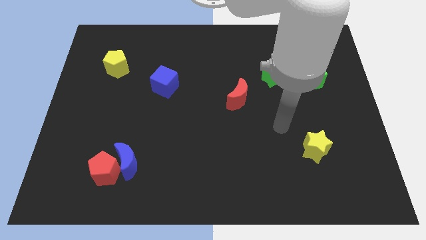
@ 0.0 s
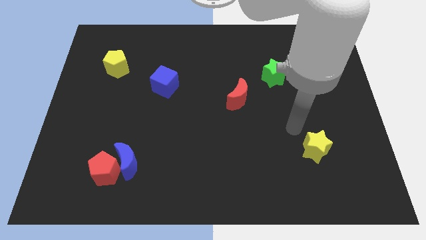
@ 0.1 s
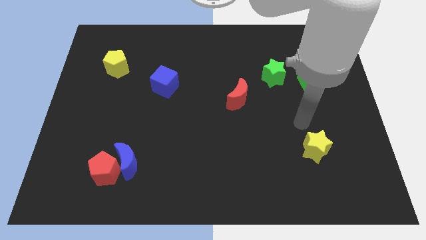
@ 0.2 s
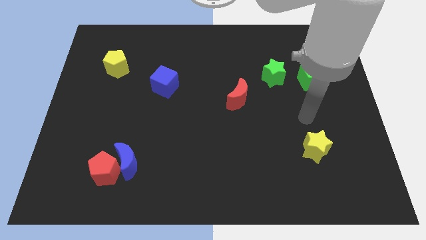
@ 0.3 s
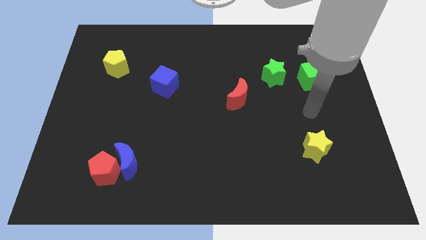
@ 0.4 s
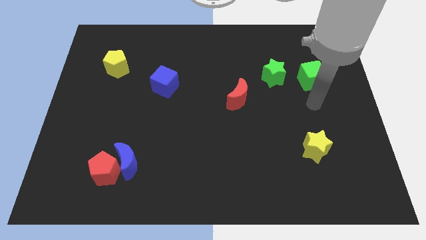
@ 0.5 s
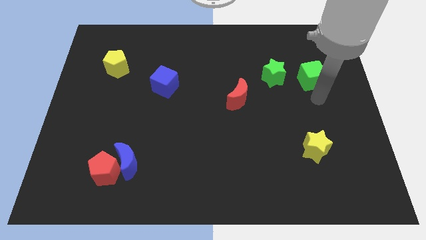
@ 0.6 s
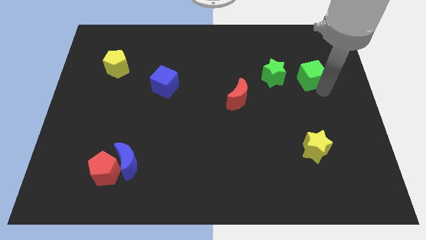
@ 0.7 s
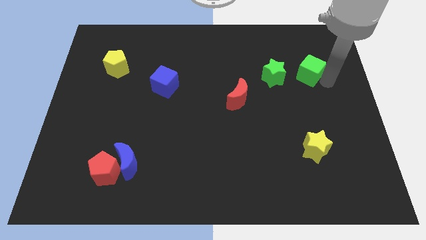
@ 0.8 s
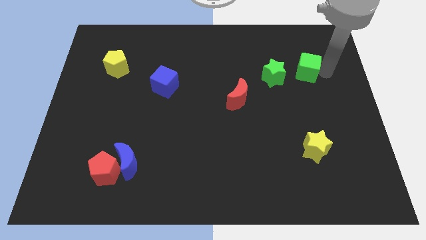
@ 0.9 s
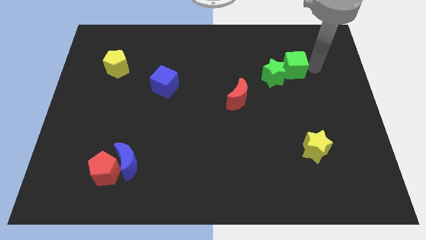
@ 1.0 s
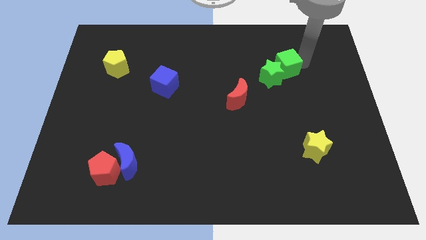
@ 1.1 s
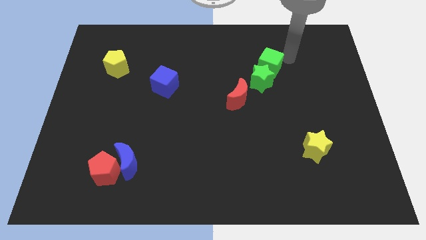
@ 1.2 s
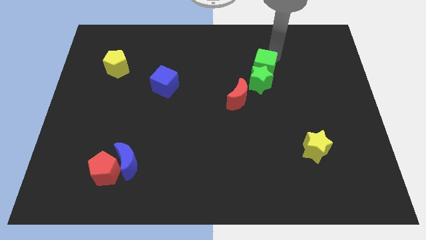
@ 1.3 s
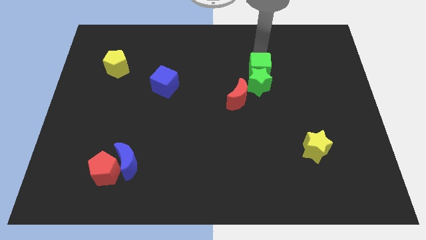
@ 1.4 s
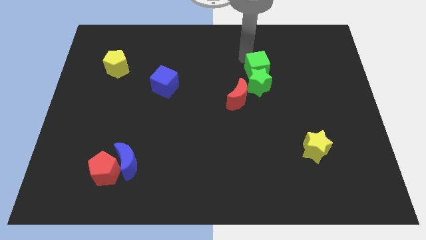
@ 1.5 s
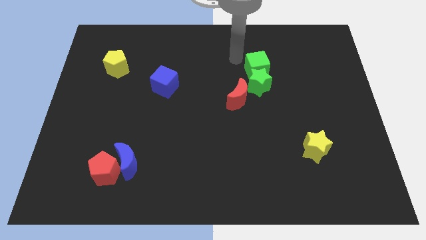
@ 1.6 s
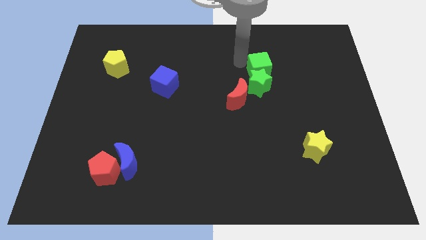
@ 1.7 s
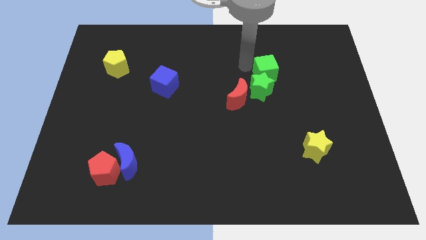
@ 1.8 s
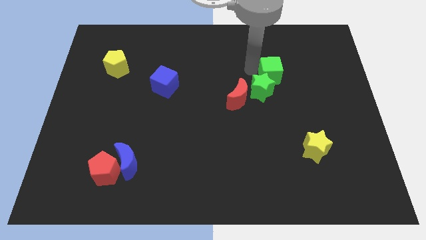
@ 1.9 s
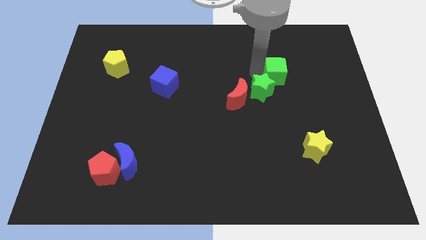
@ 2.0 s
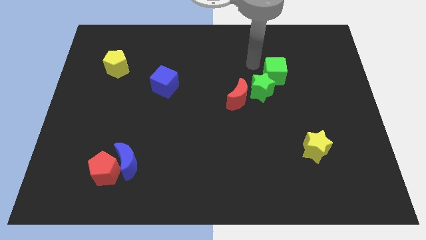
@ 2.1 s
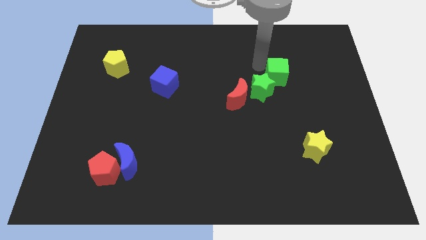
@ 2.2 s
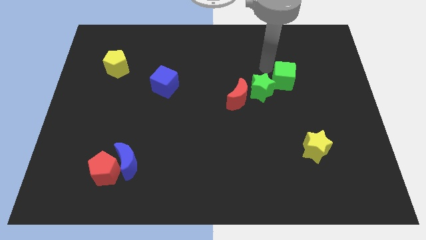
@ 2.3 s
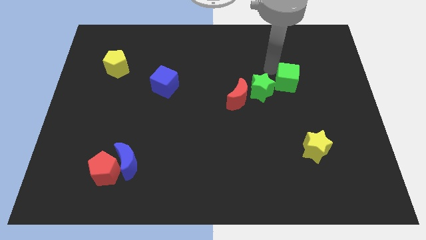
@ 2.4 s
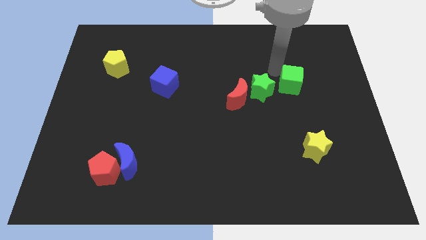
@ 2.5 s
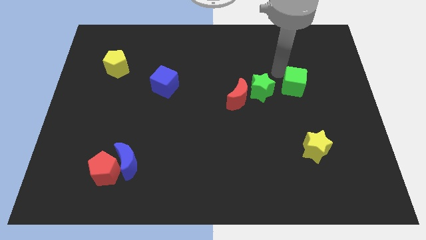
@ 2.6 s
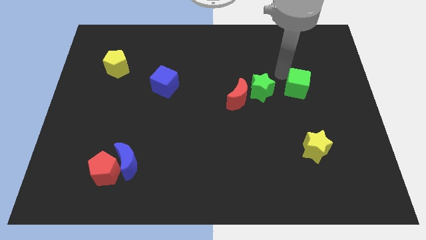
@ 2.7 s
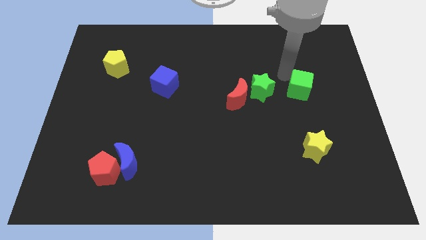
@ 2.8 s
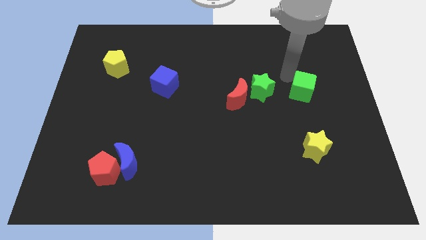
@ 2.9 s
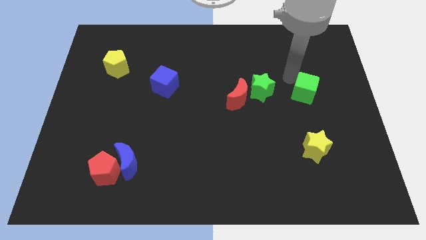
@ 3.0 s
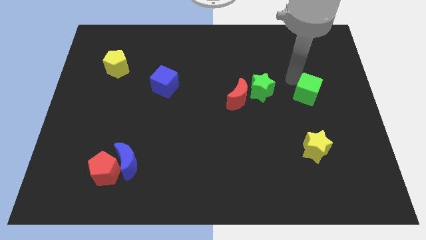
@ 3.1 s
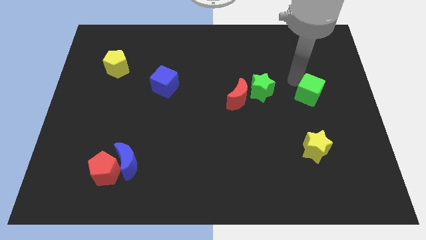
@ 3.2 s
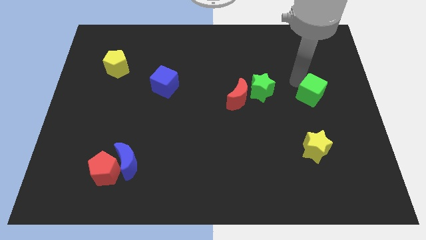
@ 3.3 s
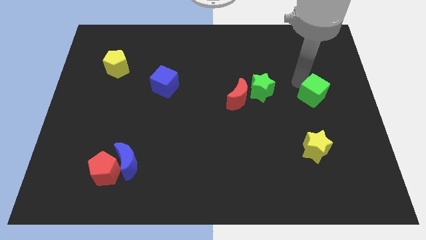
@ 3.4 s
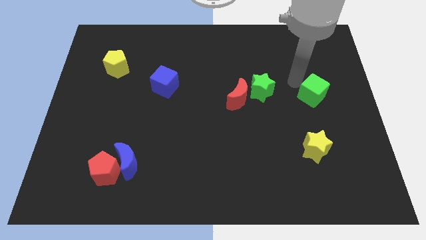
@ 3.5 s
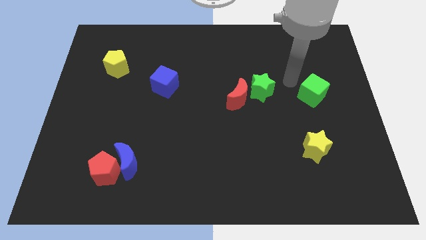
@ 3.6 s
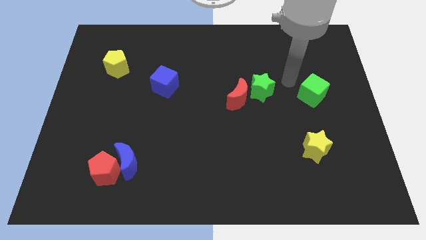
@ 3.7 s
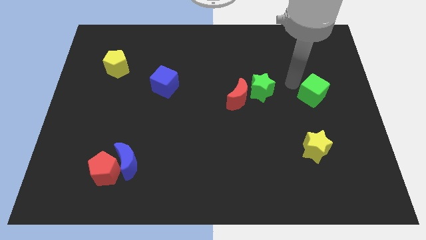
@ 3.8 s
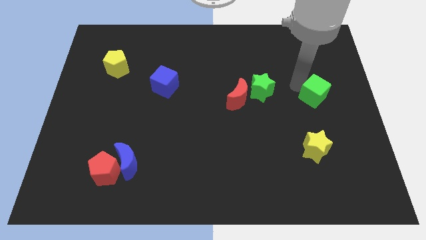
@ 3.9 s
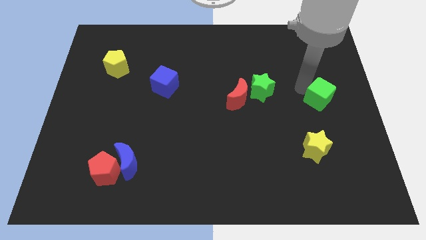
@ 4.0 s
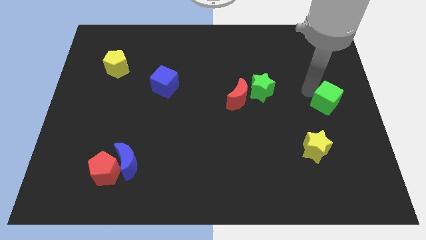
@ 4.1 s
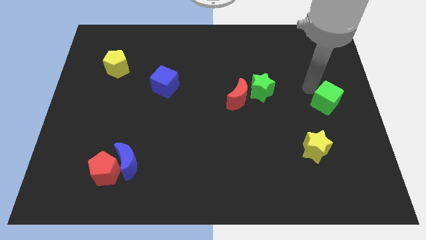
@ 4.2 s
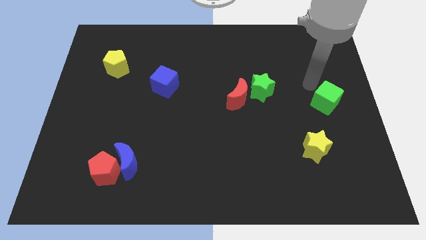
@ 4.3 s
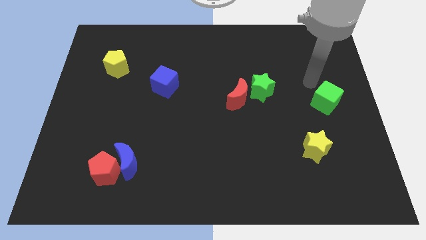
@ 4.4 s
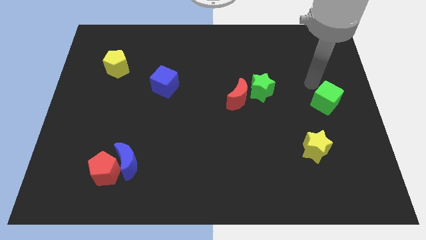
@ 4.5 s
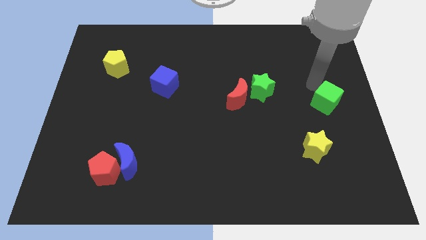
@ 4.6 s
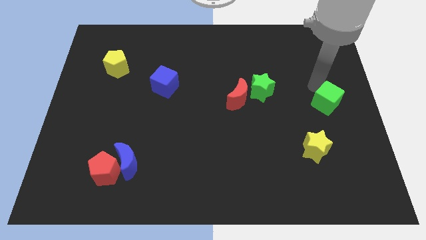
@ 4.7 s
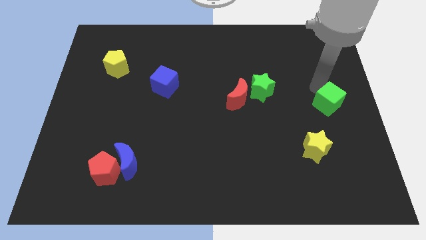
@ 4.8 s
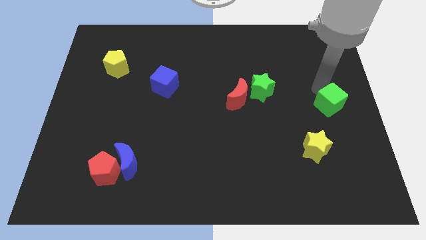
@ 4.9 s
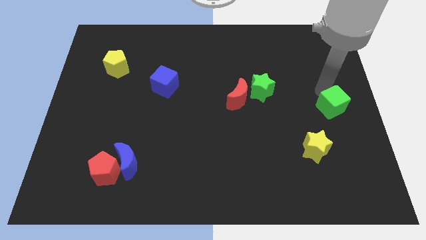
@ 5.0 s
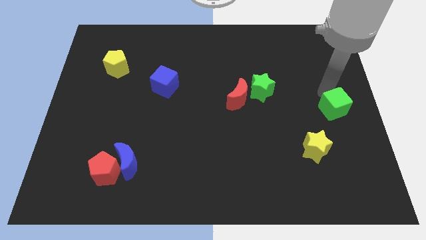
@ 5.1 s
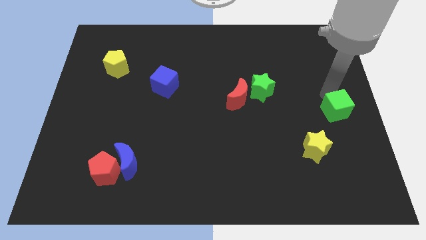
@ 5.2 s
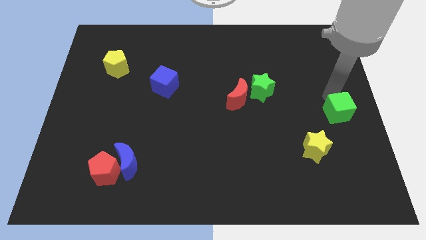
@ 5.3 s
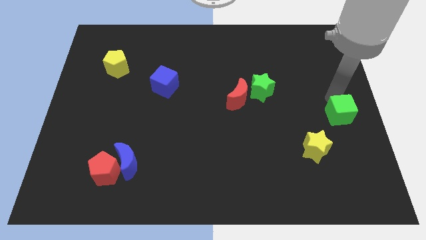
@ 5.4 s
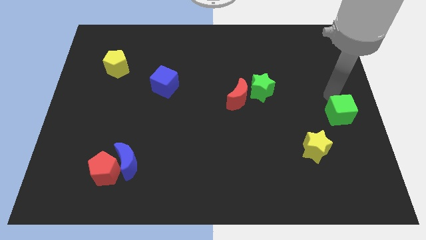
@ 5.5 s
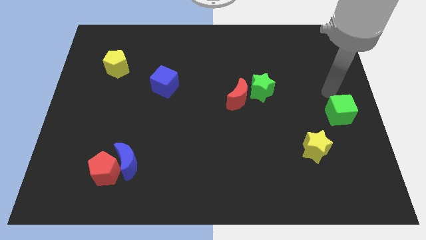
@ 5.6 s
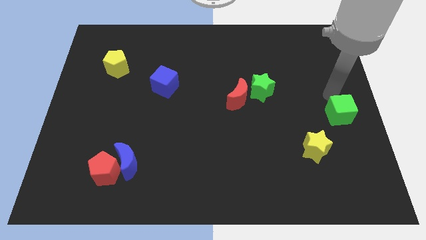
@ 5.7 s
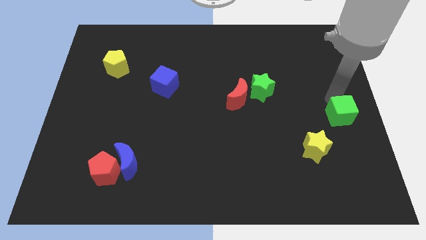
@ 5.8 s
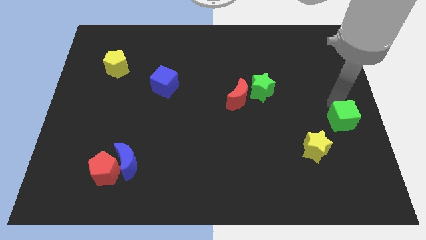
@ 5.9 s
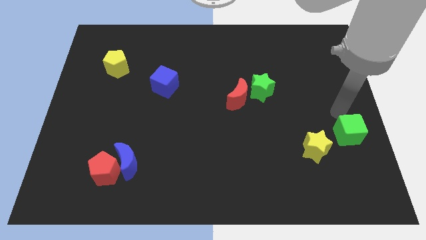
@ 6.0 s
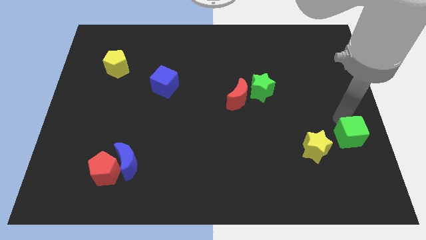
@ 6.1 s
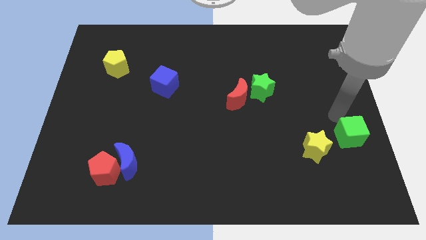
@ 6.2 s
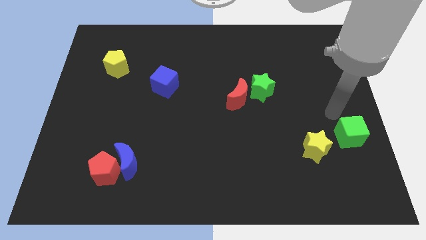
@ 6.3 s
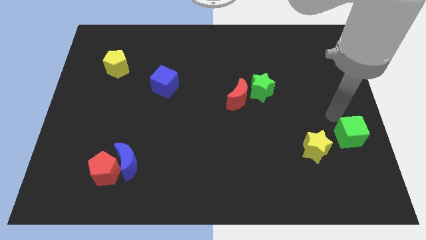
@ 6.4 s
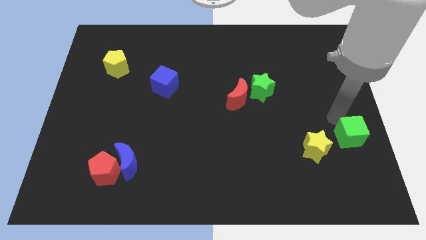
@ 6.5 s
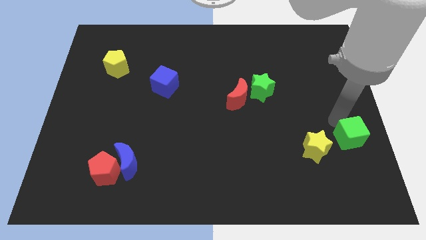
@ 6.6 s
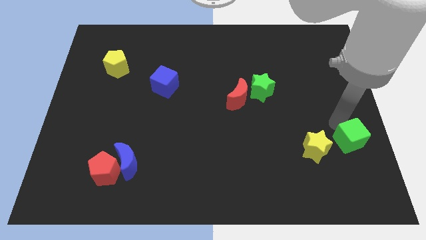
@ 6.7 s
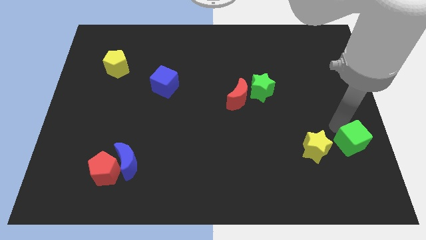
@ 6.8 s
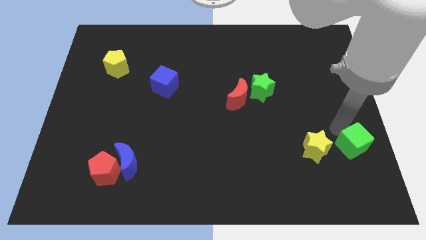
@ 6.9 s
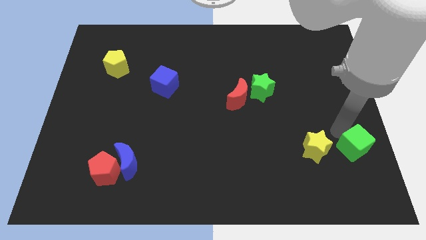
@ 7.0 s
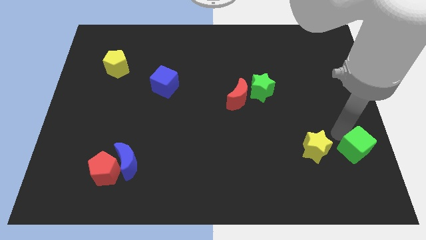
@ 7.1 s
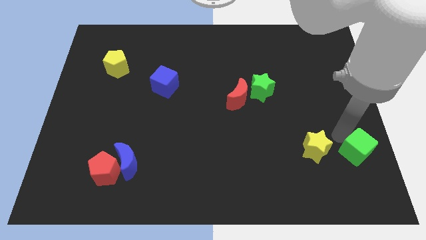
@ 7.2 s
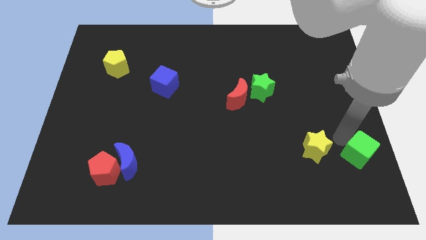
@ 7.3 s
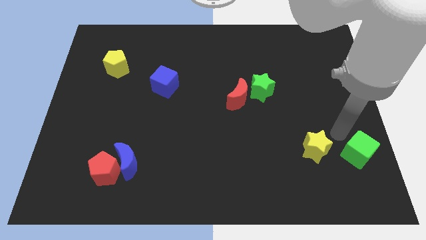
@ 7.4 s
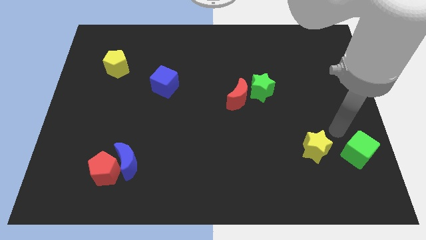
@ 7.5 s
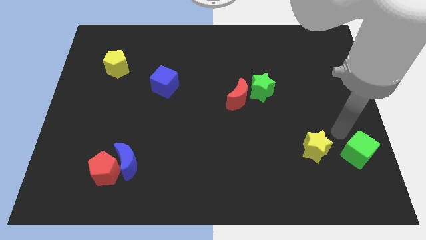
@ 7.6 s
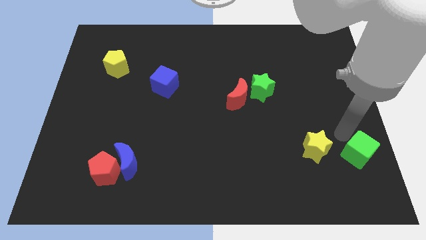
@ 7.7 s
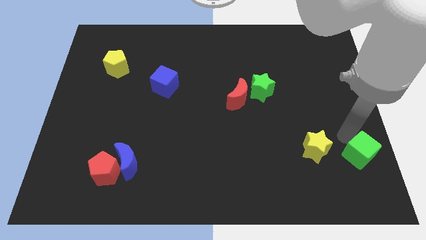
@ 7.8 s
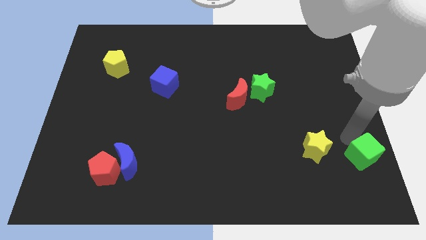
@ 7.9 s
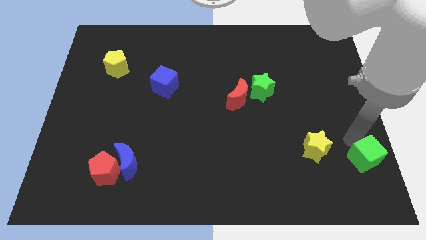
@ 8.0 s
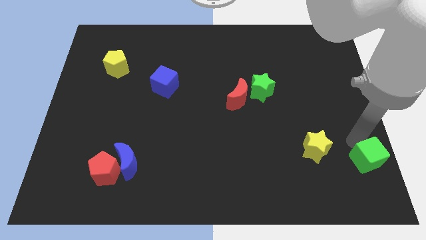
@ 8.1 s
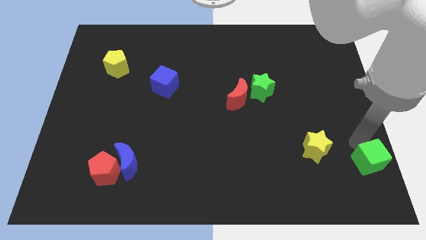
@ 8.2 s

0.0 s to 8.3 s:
put the green cube to the bottom right of the board
